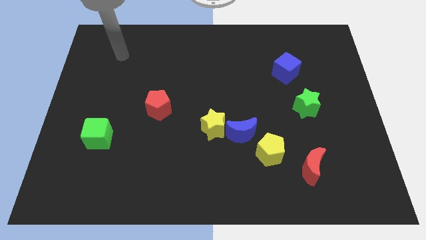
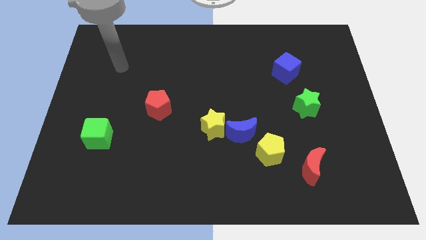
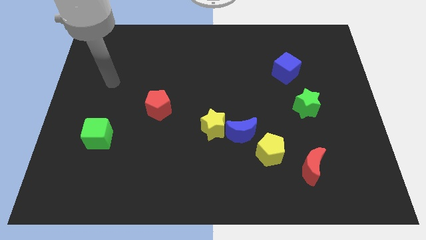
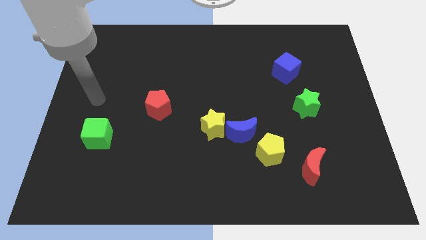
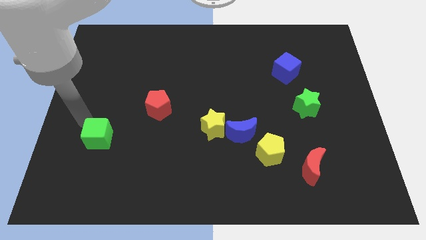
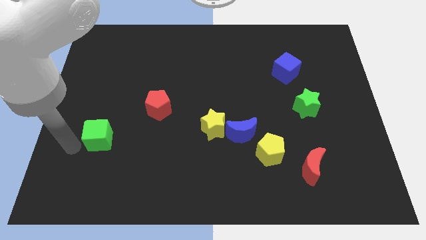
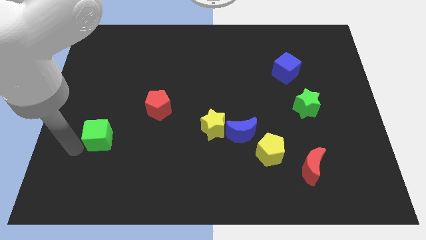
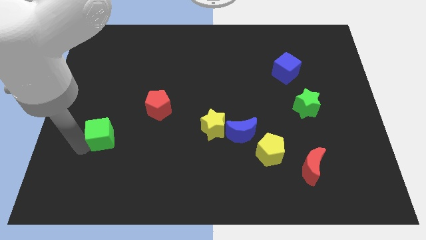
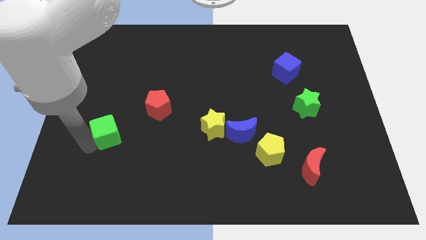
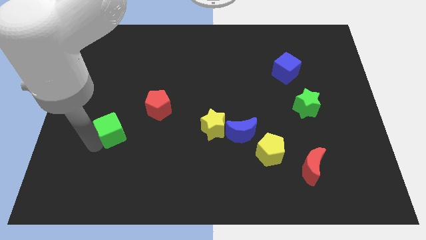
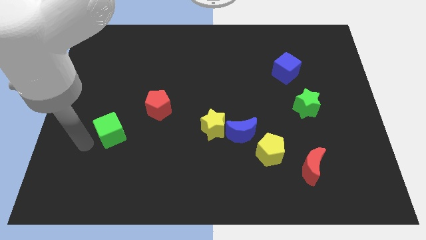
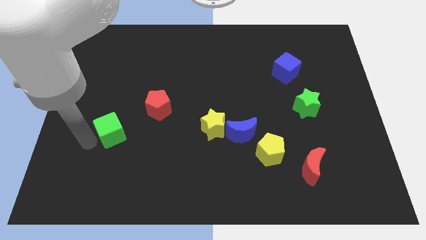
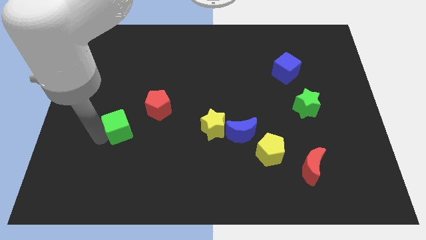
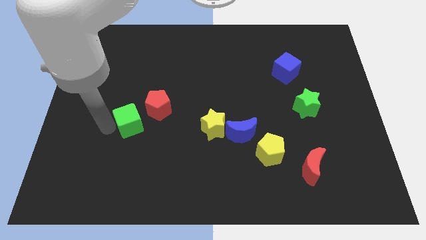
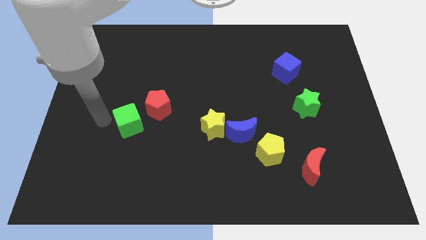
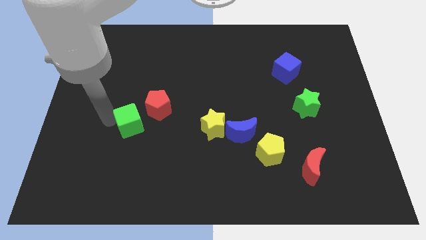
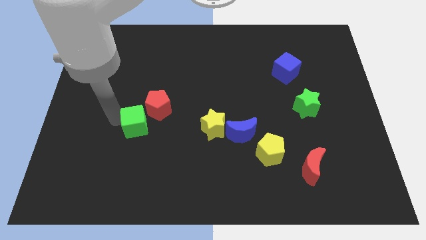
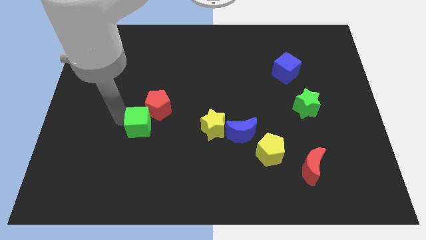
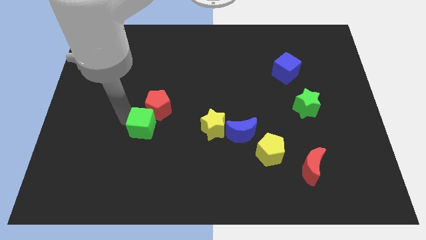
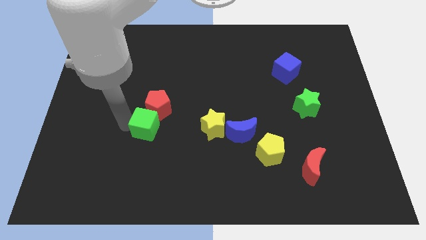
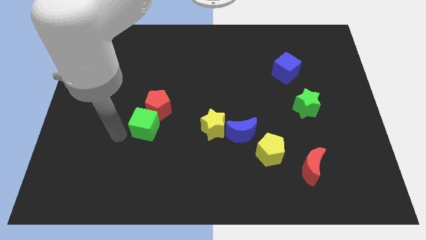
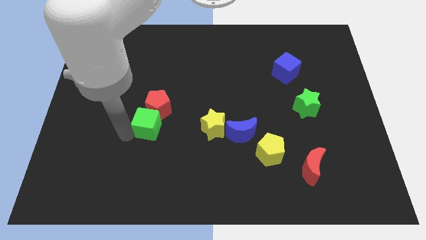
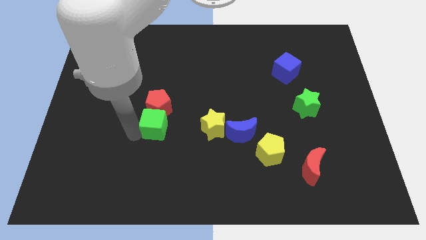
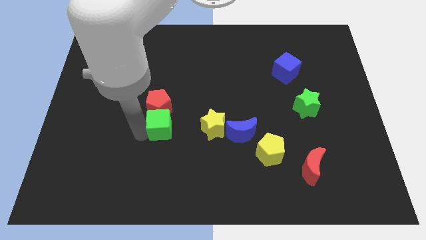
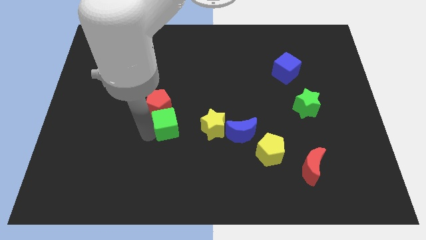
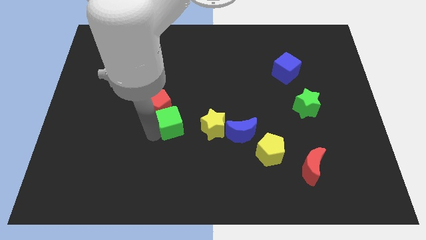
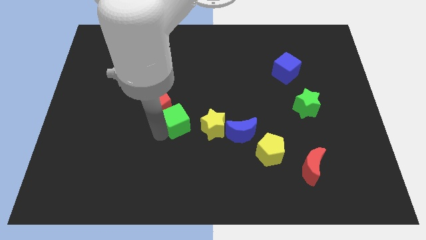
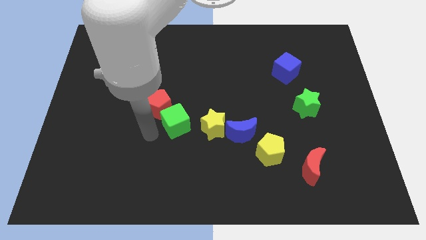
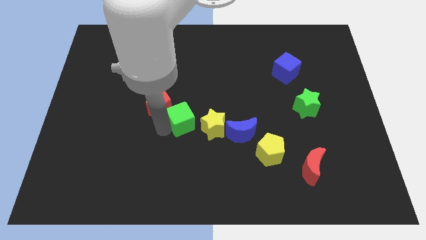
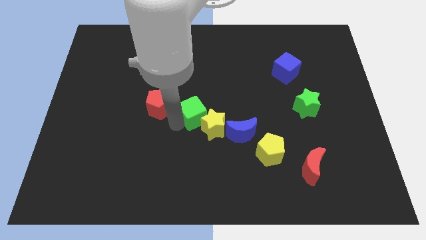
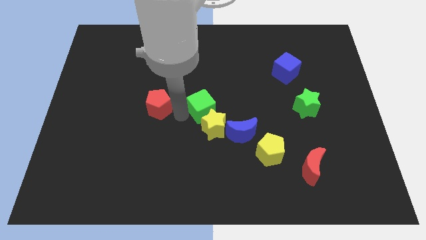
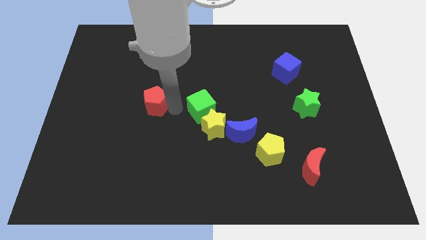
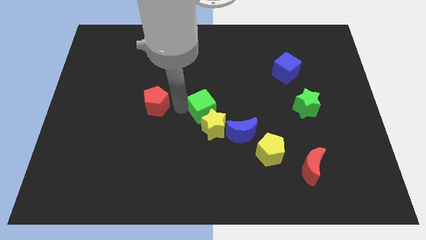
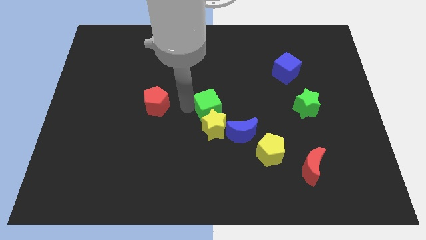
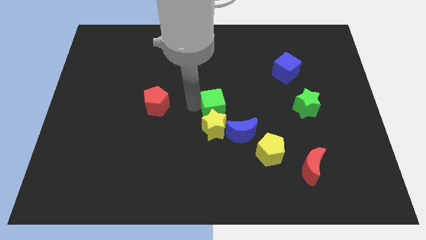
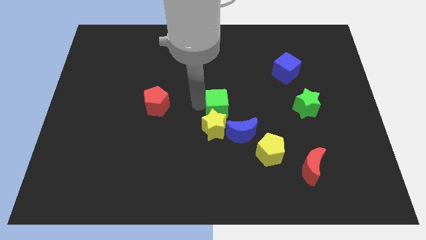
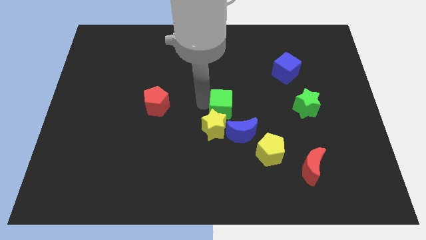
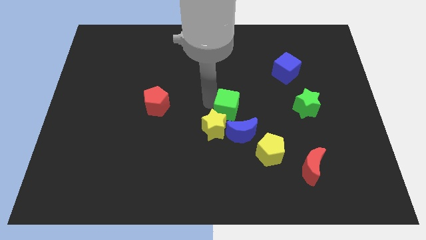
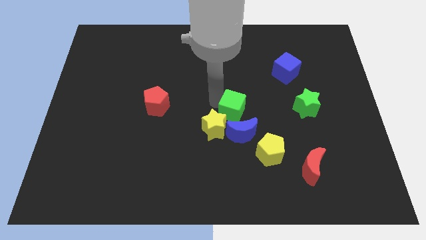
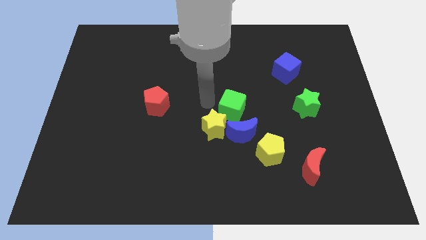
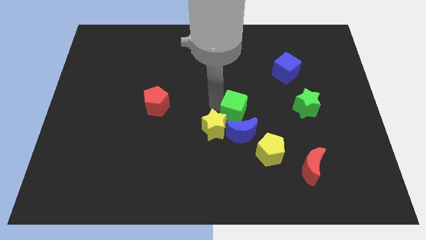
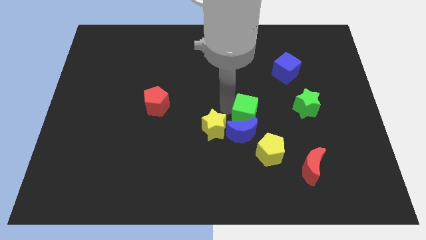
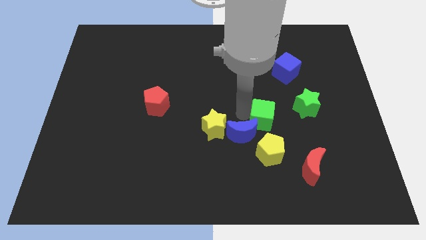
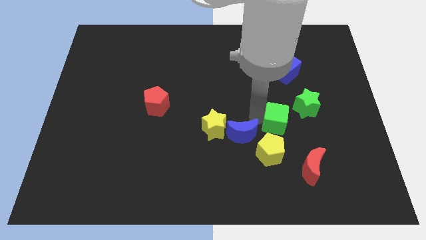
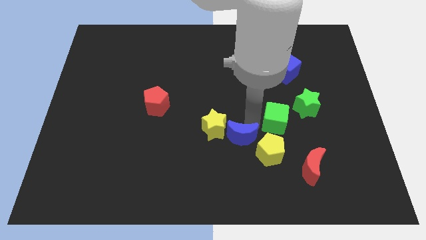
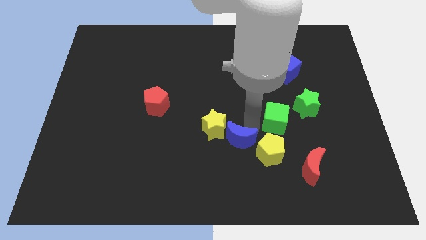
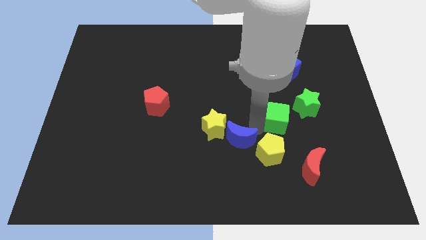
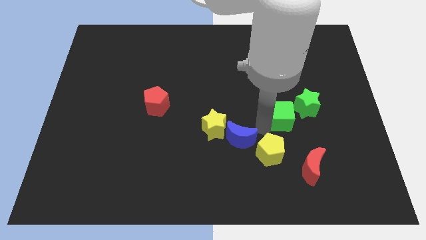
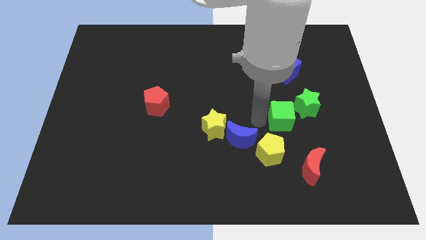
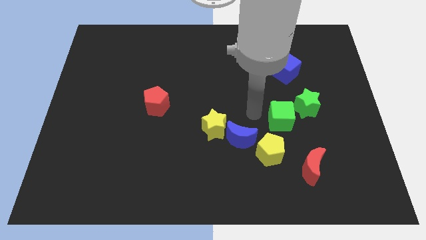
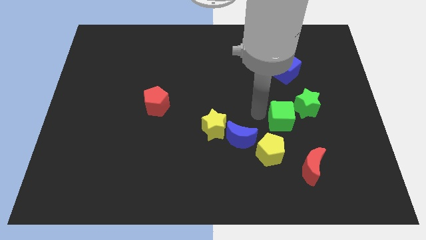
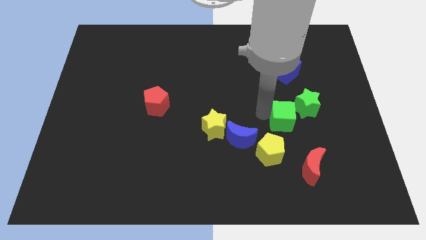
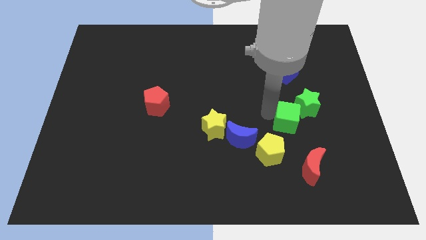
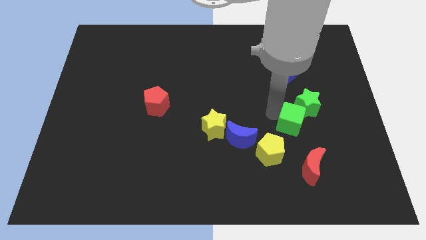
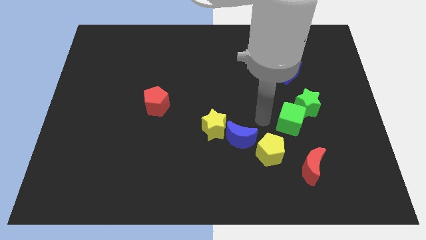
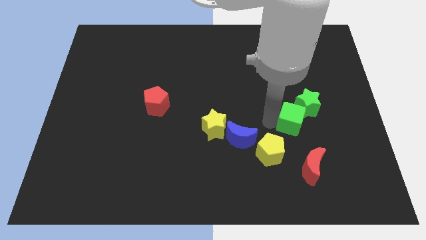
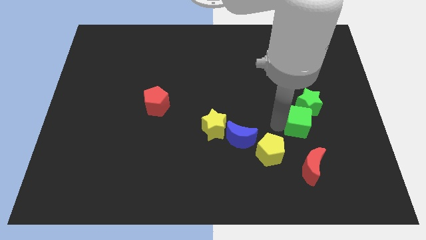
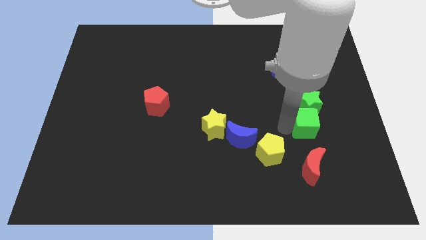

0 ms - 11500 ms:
push the green cube to the bottom right side of the green star

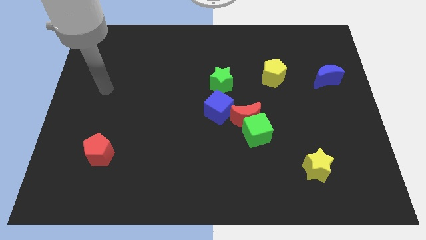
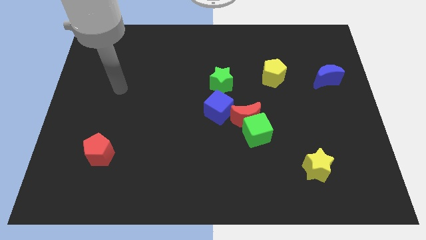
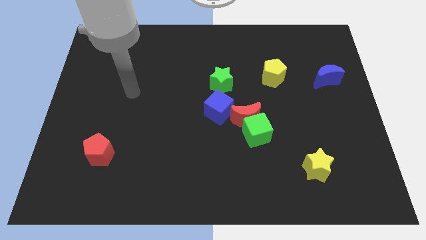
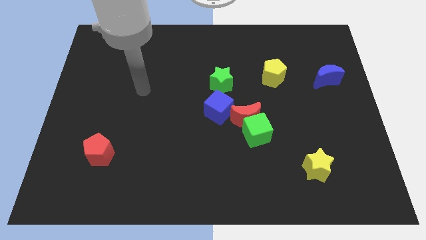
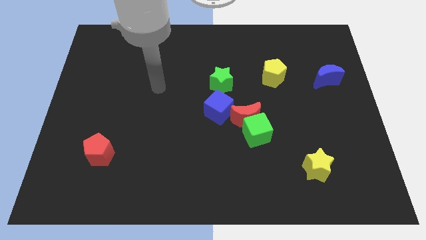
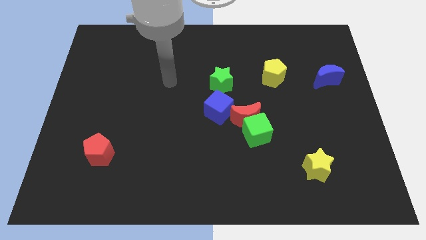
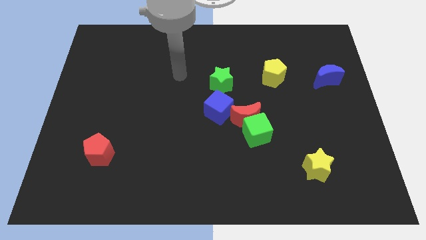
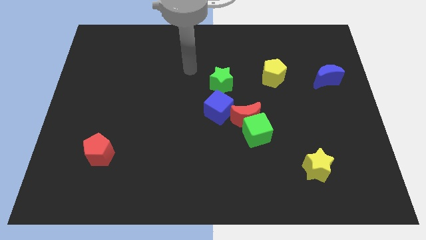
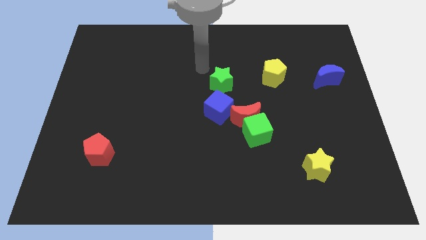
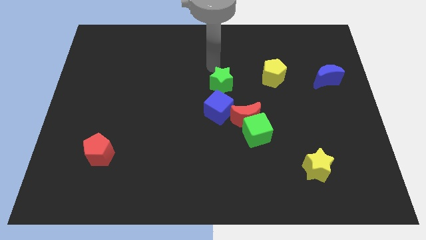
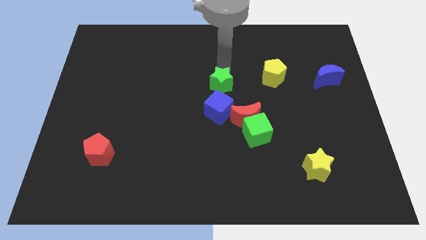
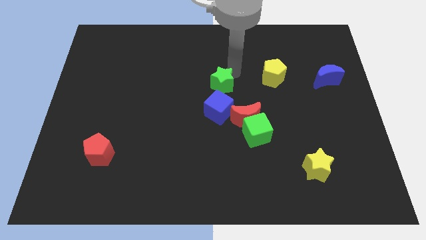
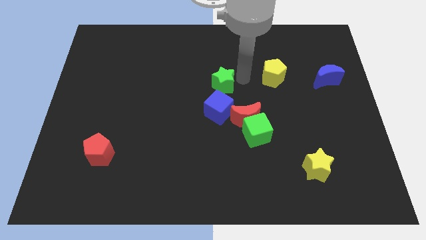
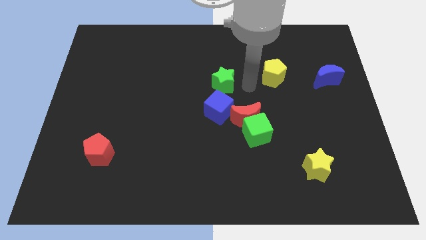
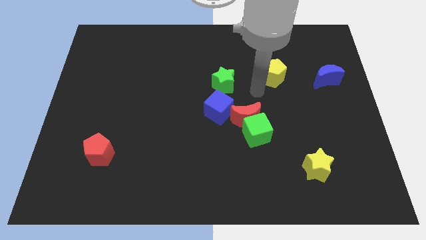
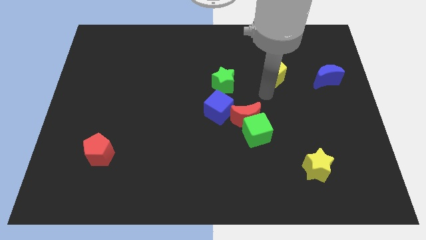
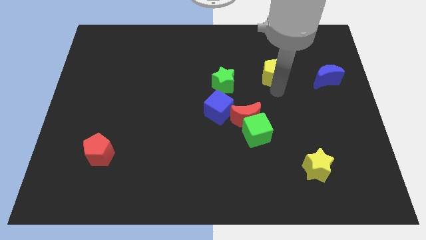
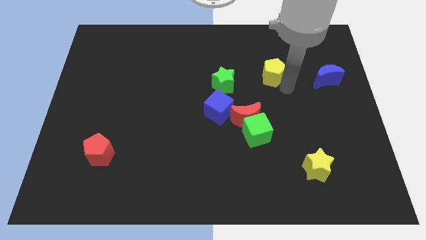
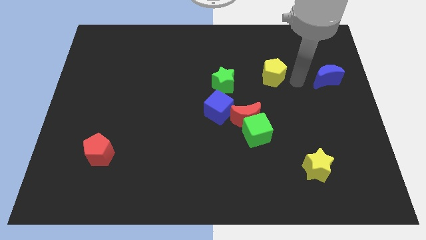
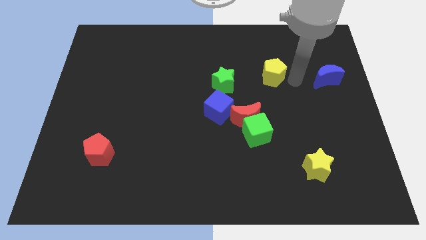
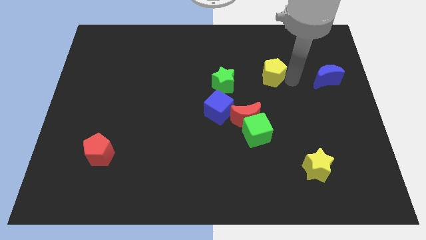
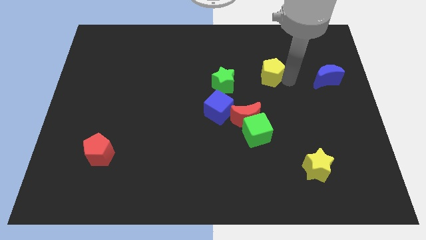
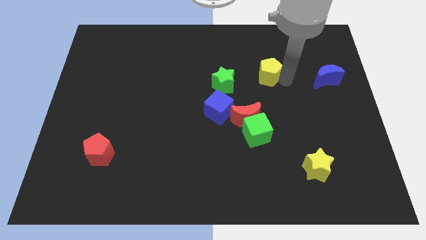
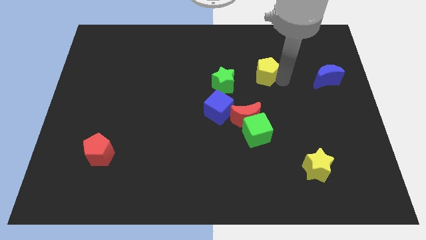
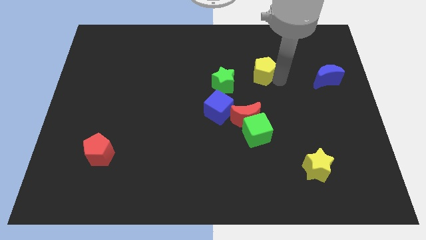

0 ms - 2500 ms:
move the yellow pentagon to the top right of the green star
